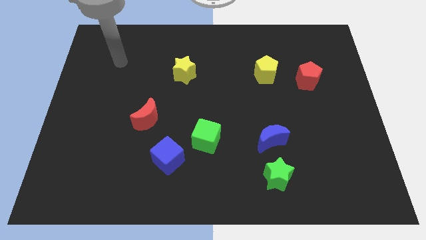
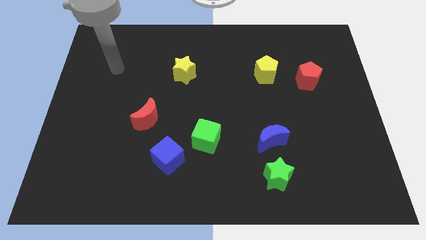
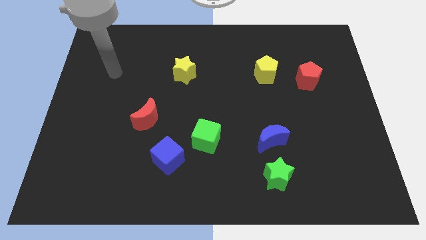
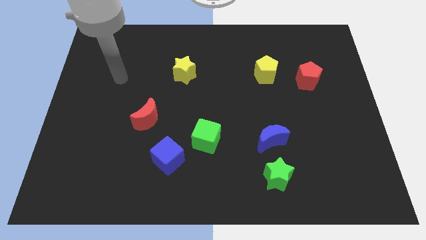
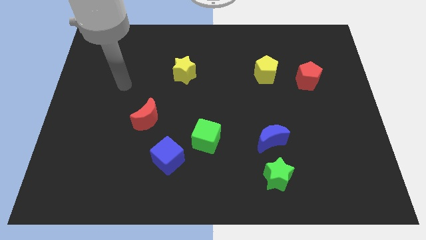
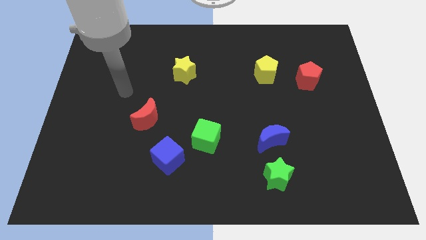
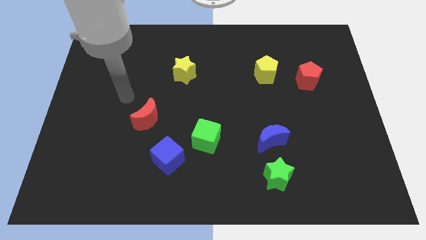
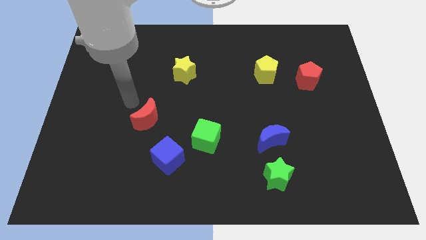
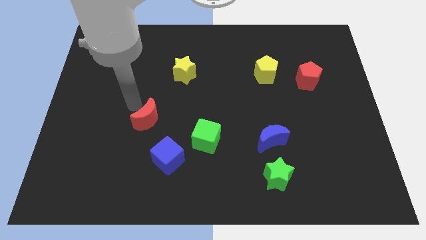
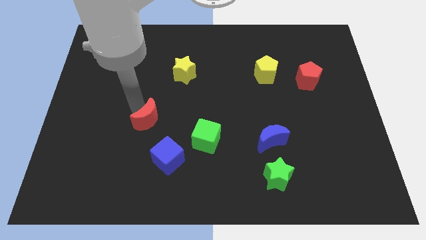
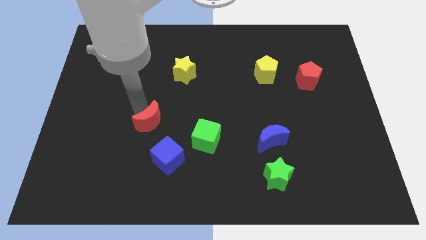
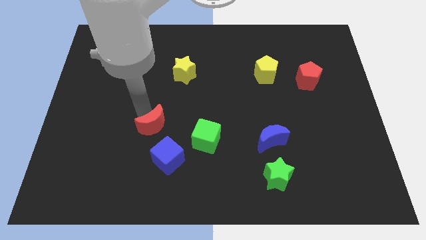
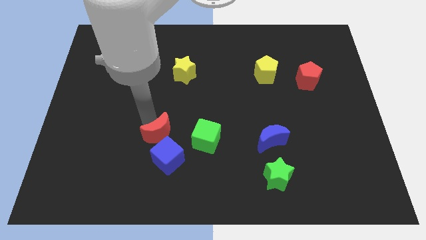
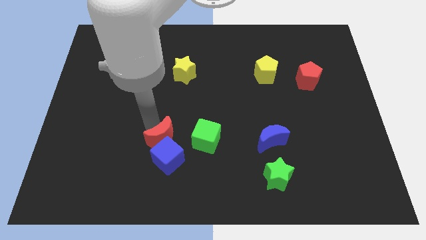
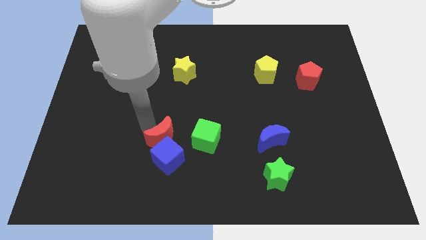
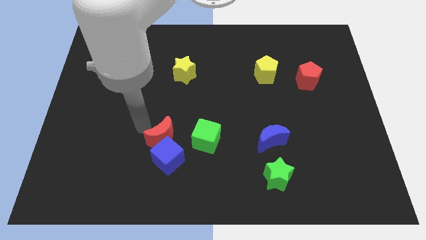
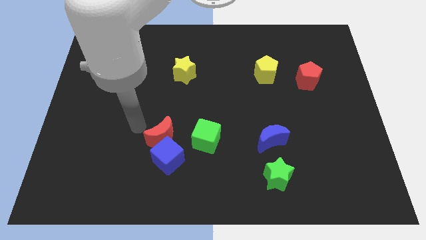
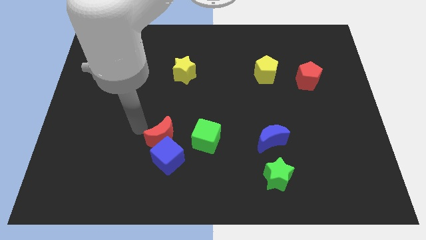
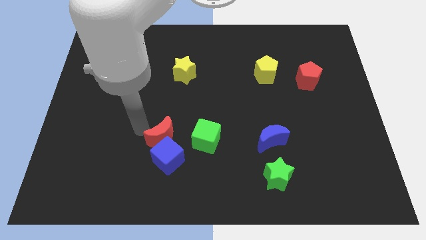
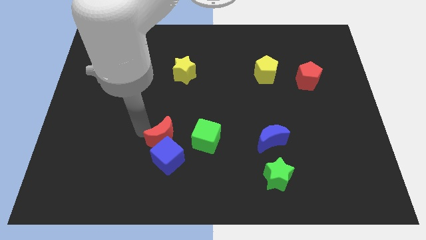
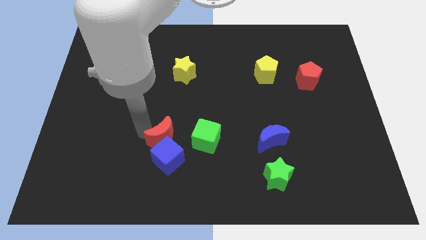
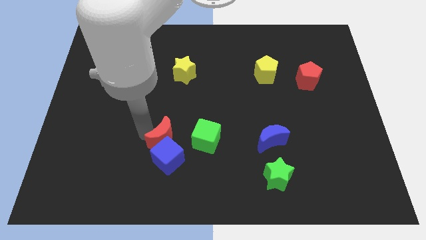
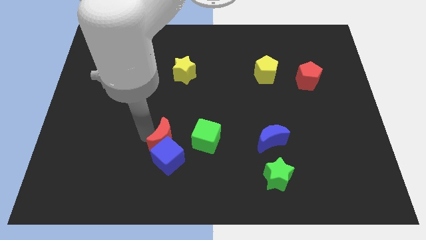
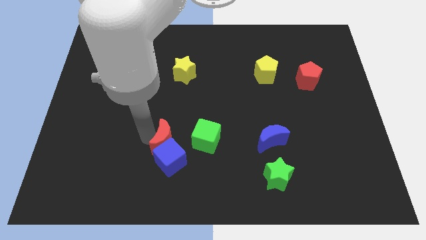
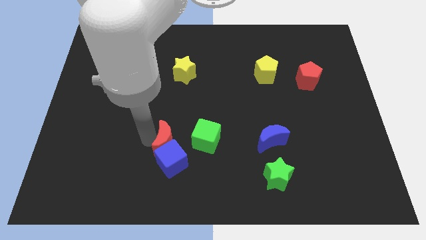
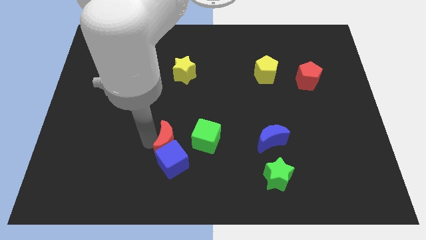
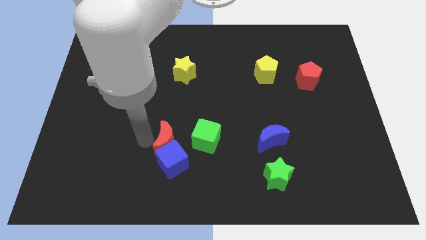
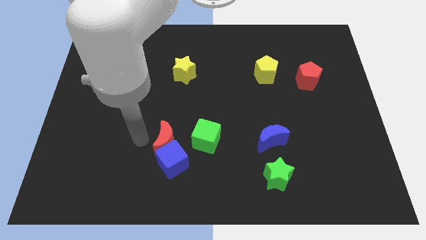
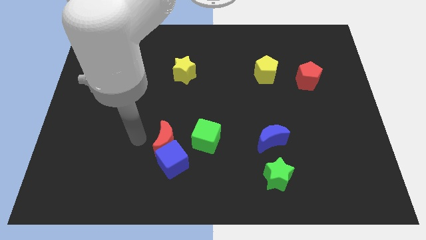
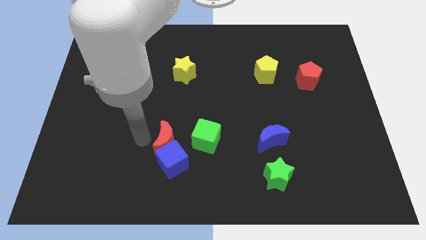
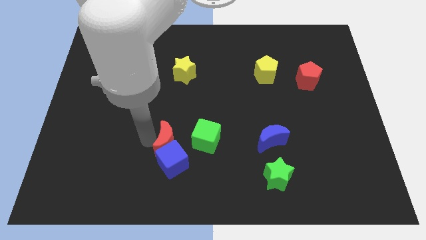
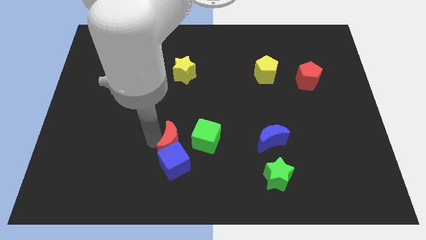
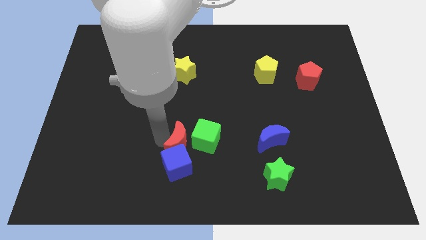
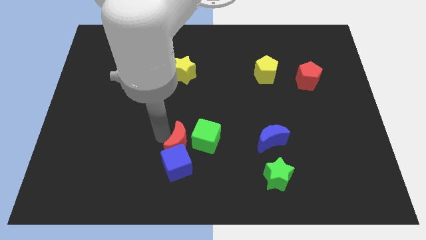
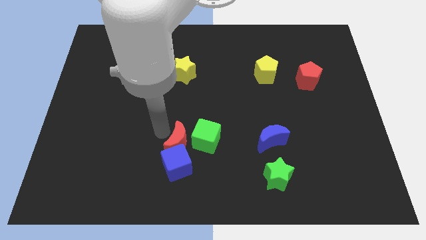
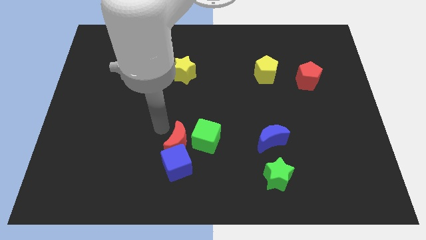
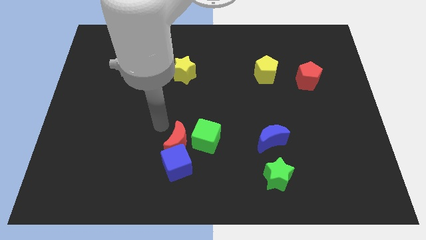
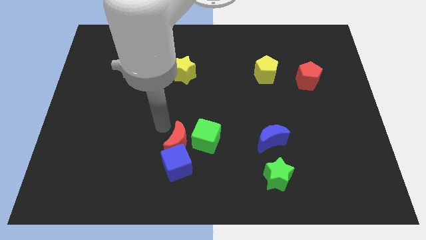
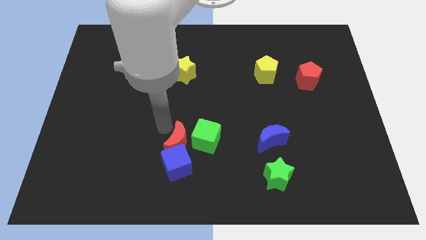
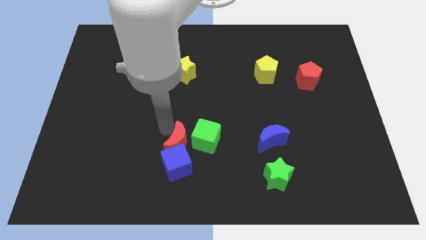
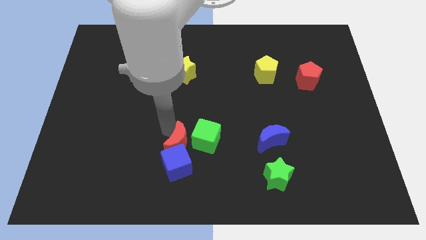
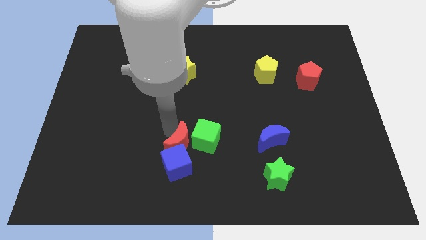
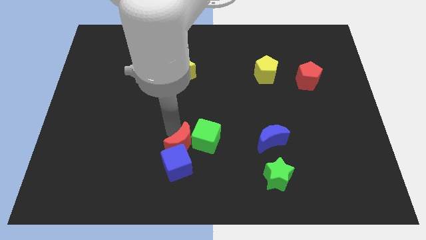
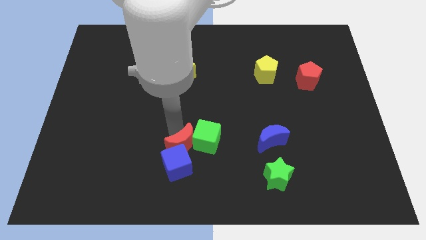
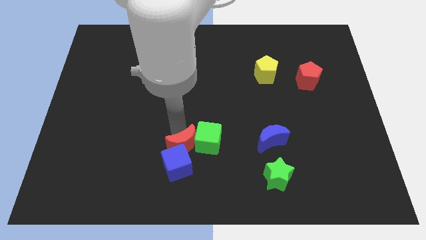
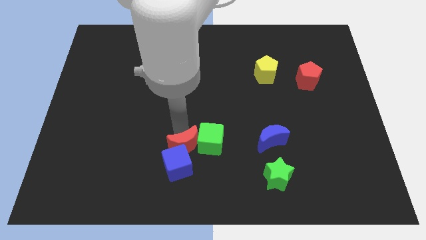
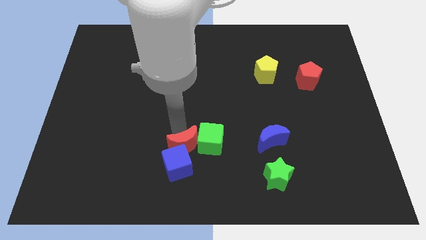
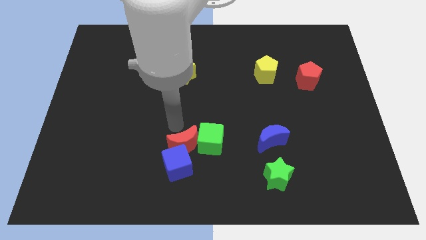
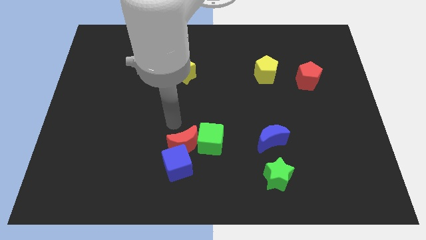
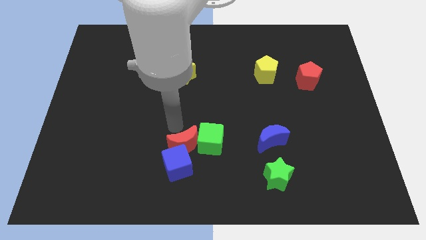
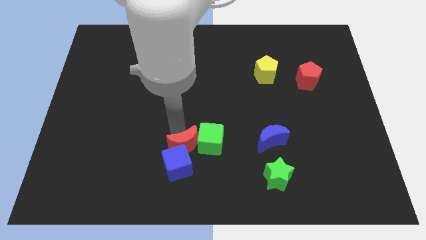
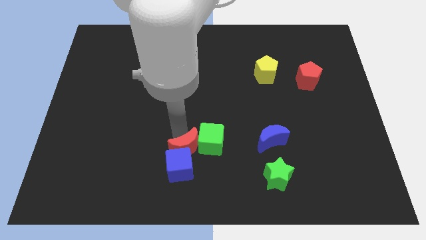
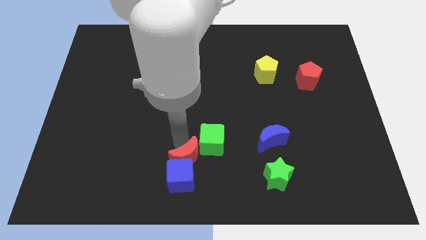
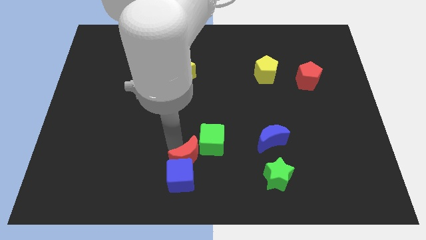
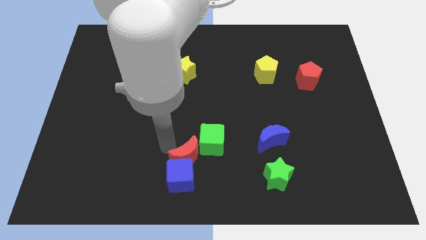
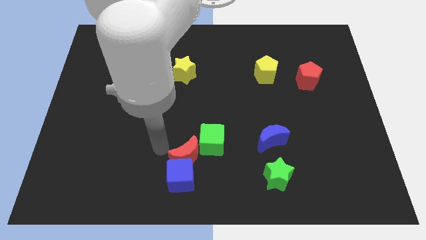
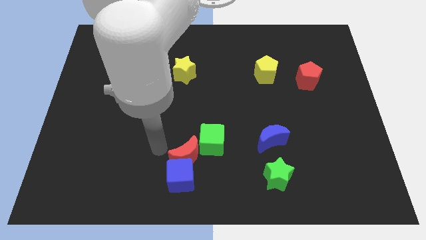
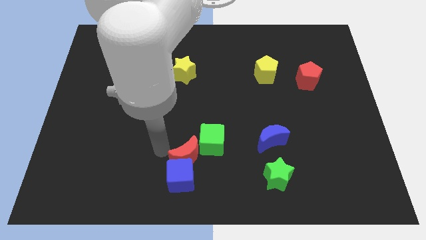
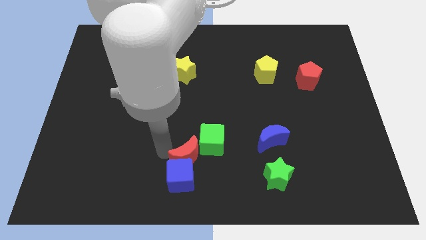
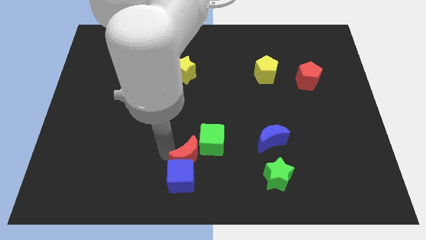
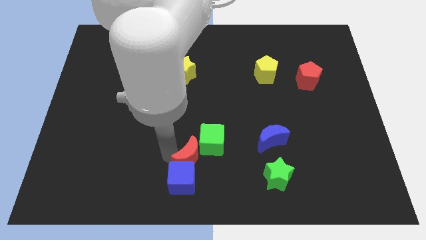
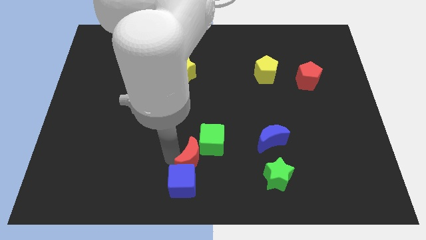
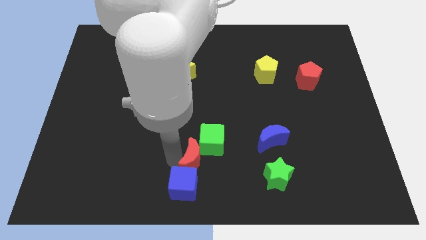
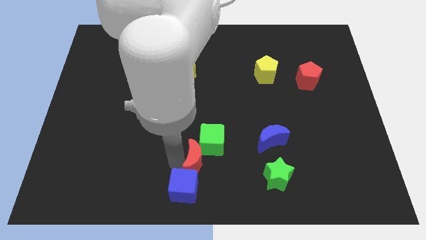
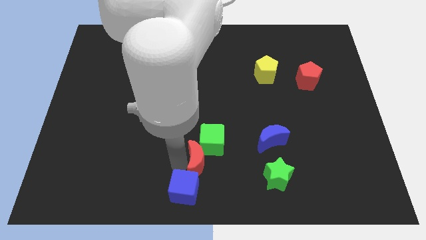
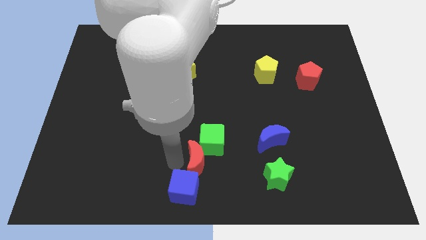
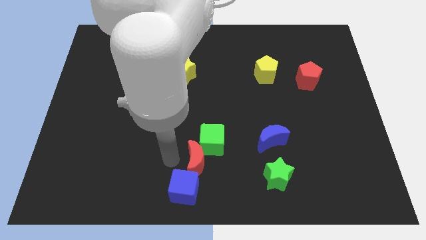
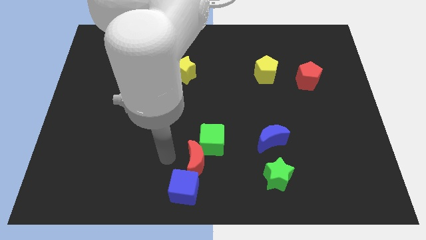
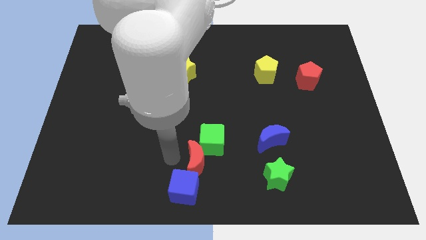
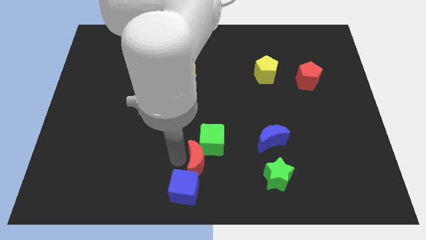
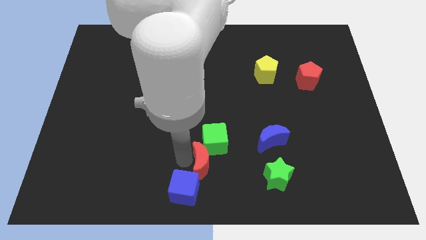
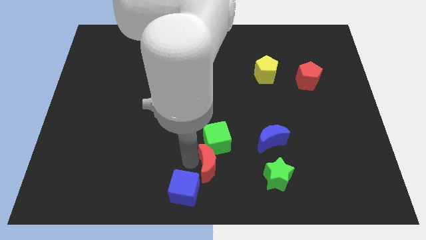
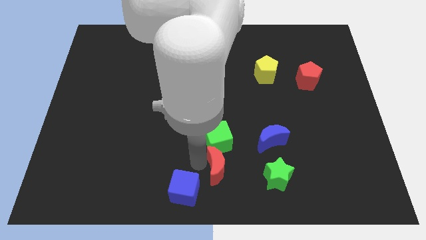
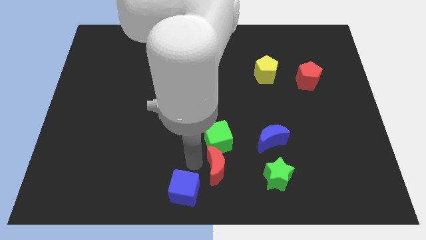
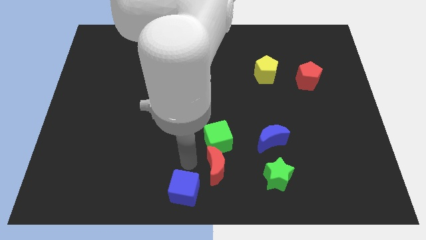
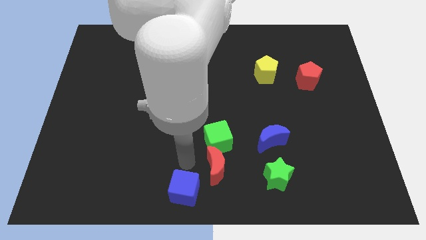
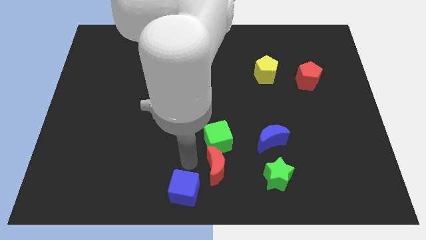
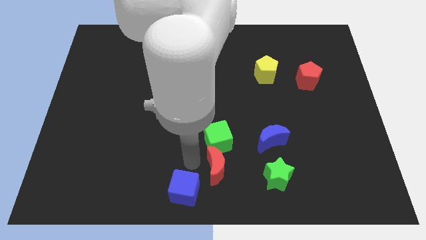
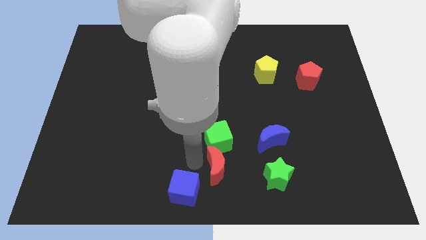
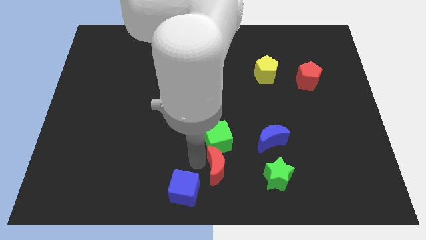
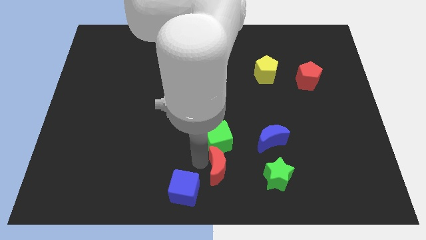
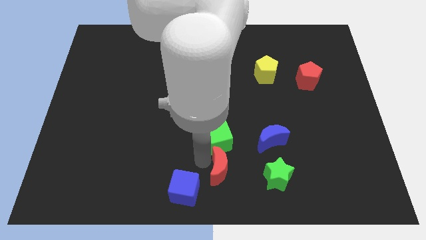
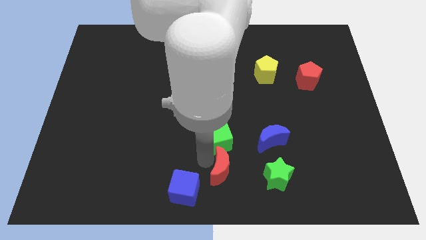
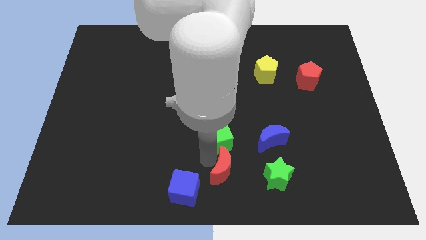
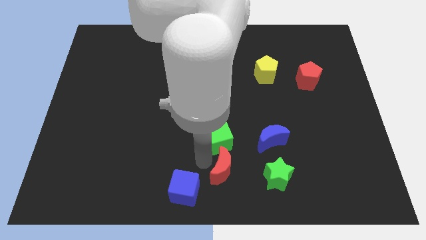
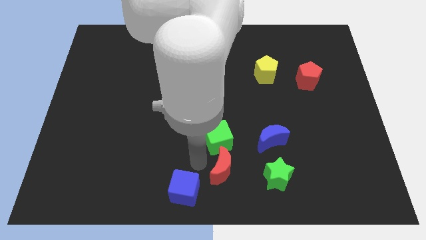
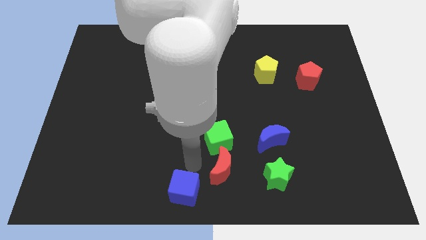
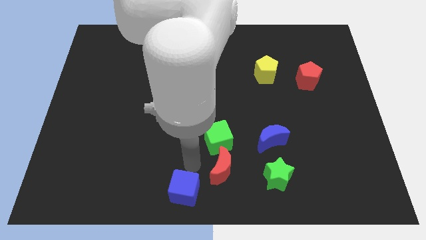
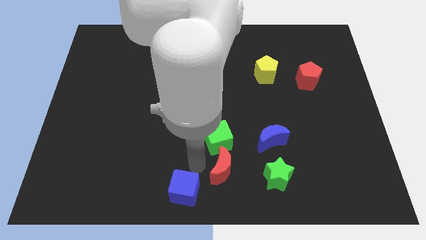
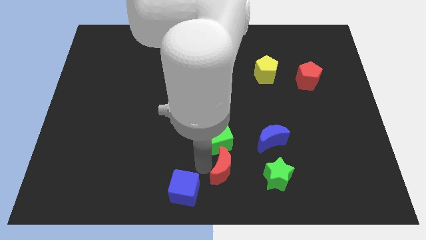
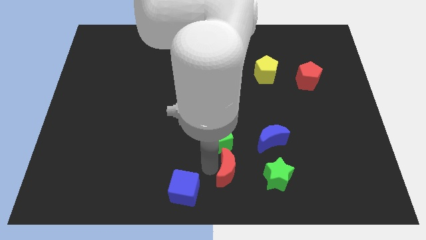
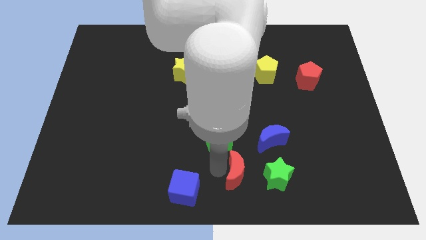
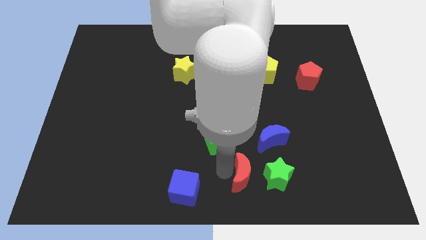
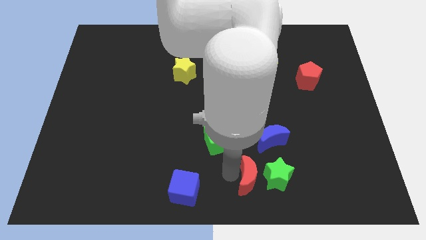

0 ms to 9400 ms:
move the red moon towards the green star
